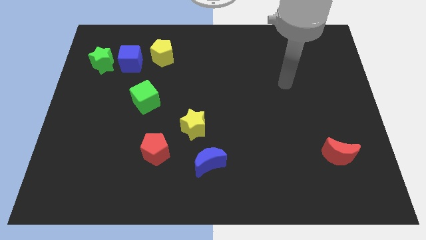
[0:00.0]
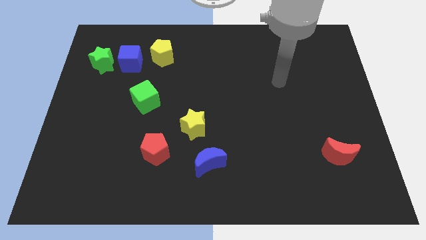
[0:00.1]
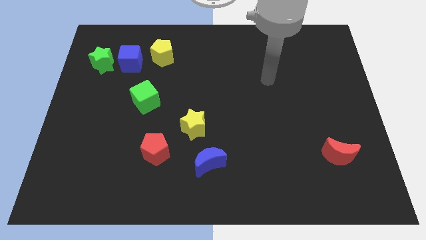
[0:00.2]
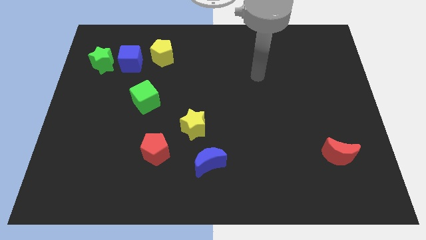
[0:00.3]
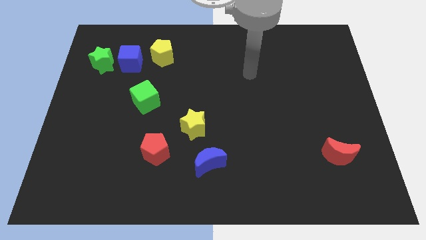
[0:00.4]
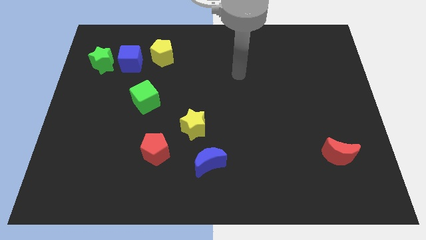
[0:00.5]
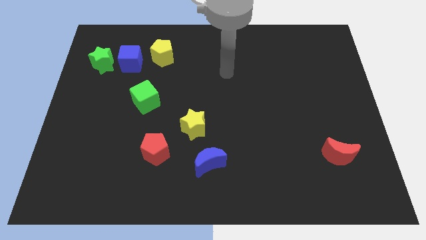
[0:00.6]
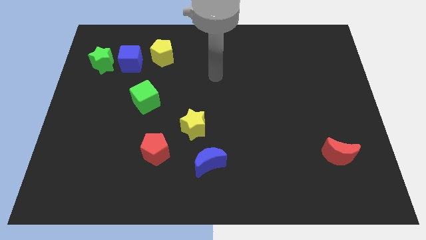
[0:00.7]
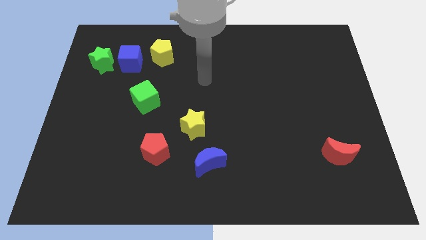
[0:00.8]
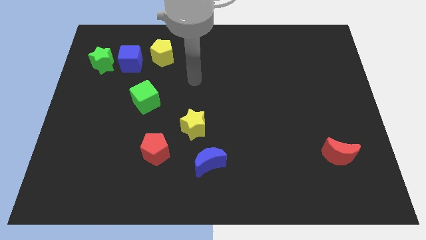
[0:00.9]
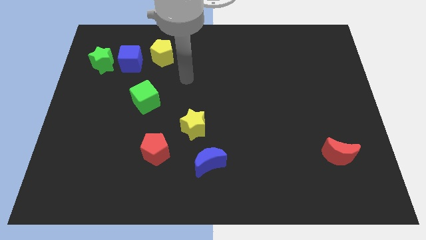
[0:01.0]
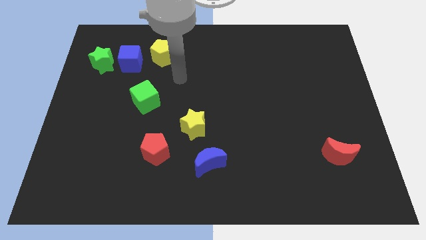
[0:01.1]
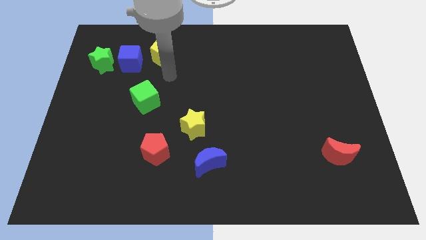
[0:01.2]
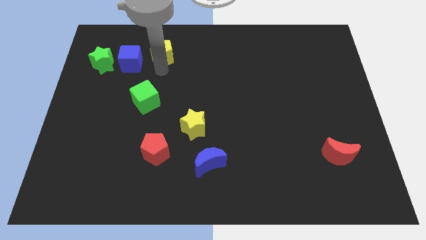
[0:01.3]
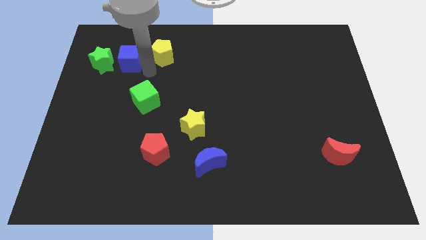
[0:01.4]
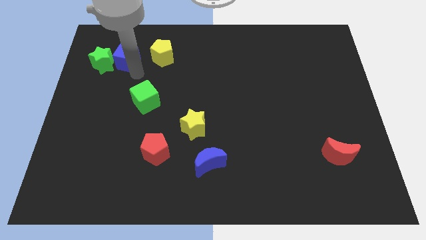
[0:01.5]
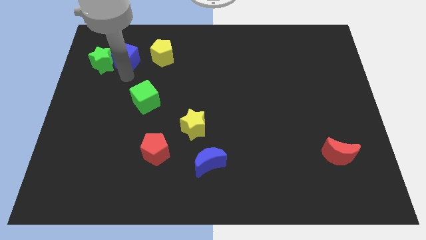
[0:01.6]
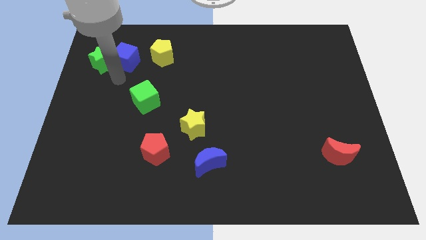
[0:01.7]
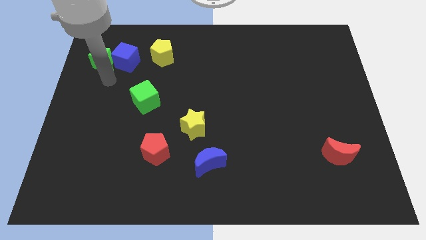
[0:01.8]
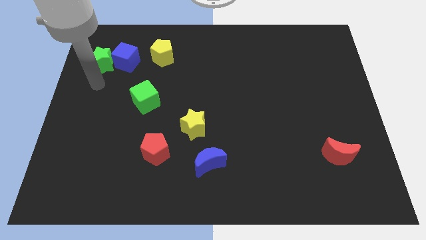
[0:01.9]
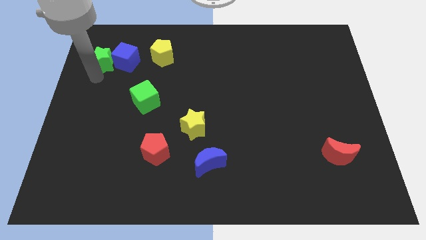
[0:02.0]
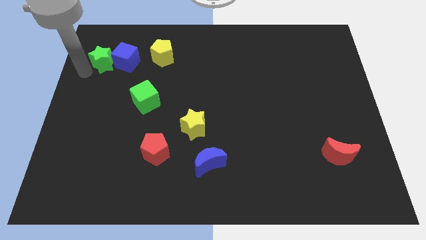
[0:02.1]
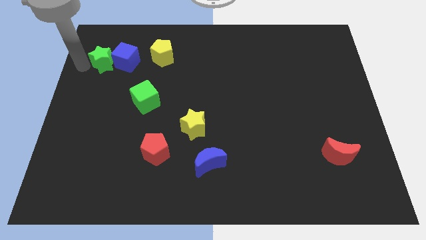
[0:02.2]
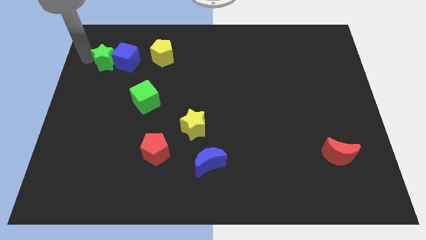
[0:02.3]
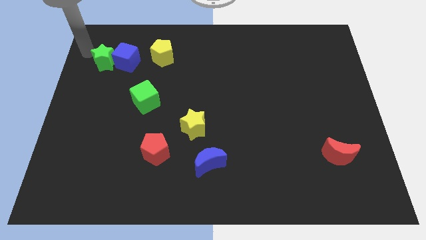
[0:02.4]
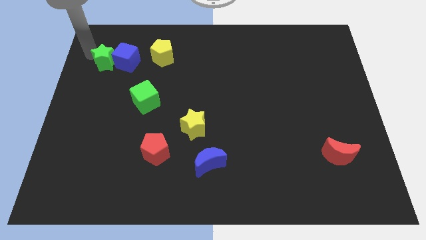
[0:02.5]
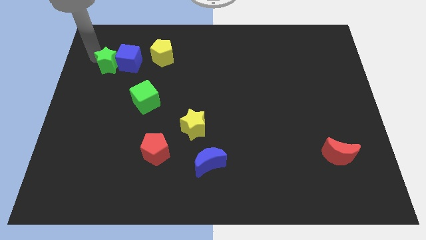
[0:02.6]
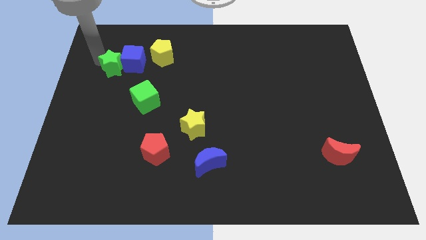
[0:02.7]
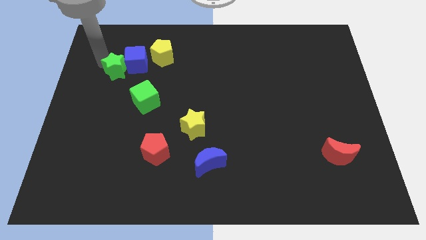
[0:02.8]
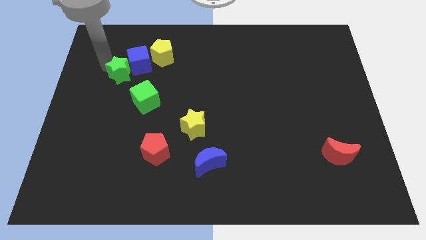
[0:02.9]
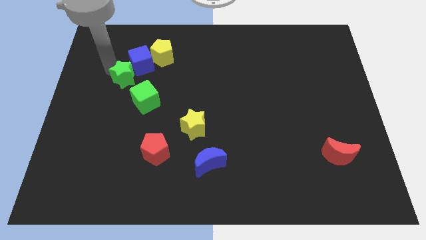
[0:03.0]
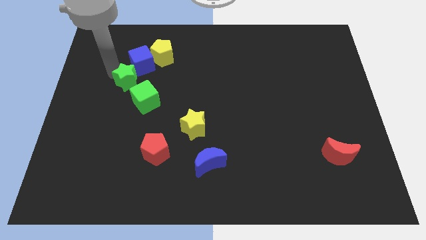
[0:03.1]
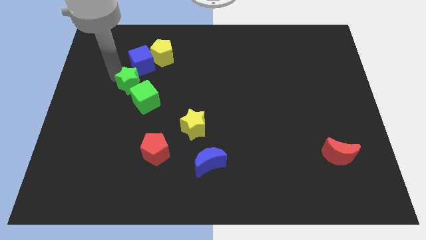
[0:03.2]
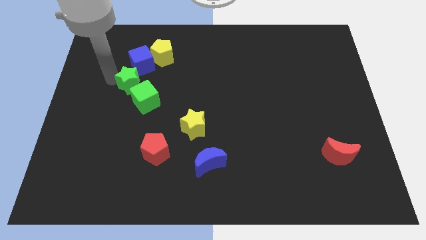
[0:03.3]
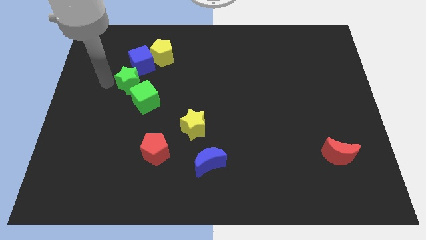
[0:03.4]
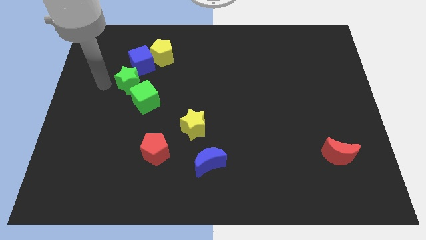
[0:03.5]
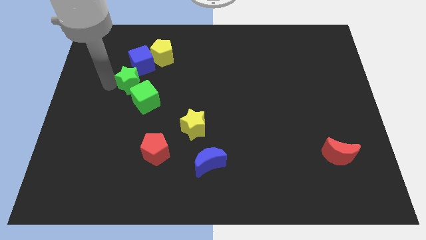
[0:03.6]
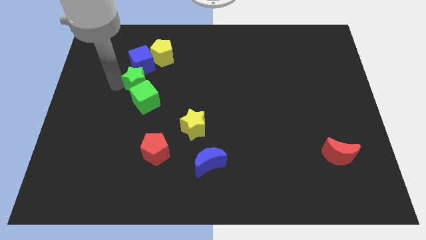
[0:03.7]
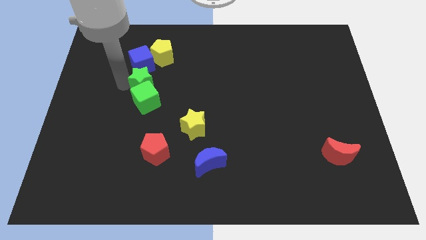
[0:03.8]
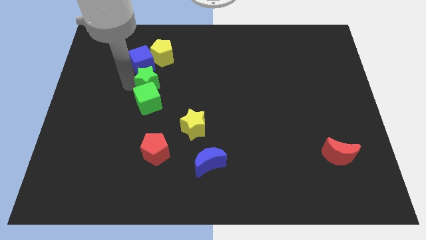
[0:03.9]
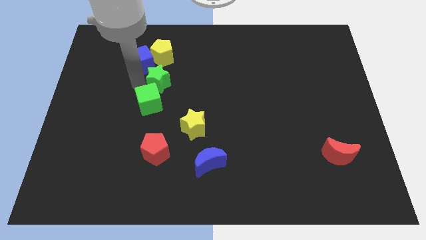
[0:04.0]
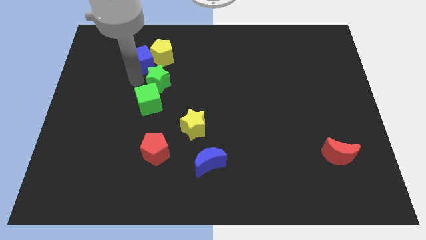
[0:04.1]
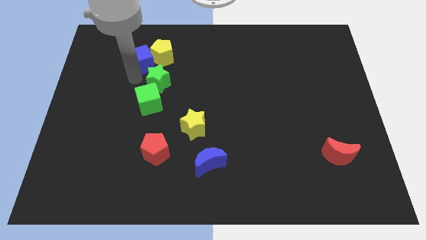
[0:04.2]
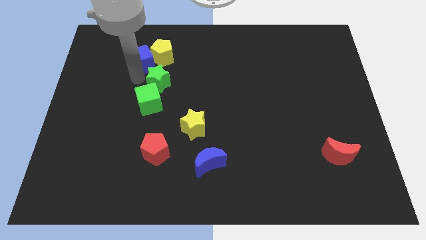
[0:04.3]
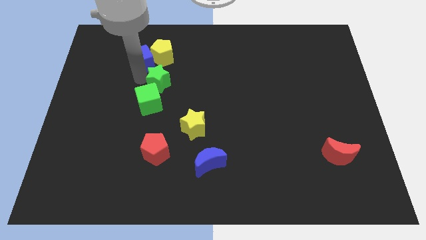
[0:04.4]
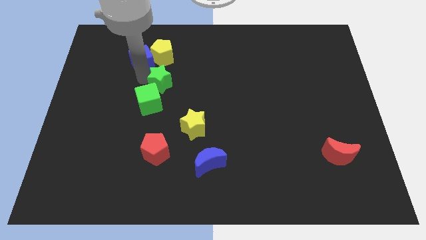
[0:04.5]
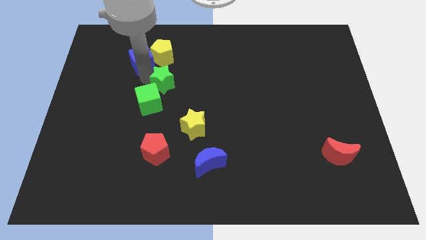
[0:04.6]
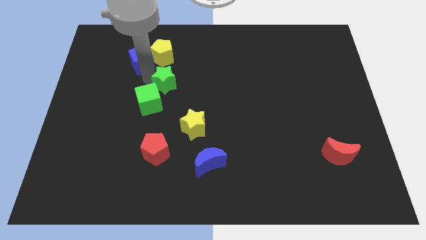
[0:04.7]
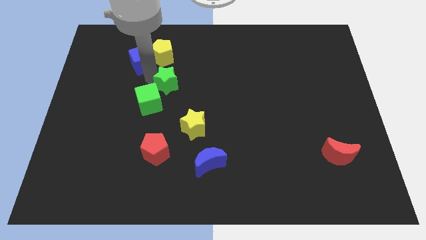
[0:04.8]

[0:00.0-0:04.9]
push the green star to the middle
